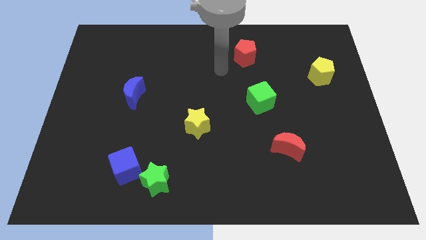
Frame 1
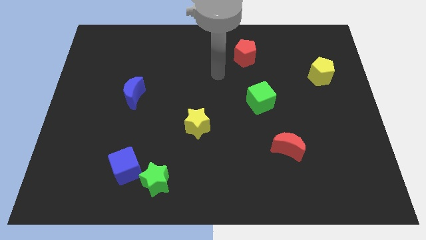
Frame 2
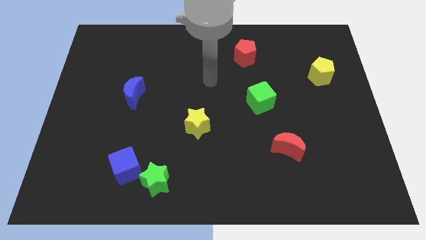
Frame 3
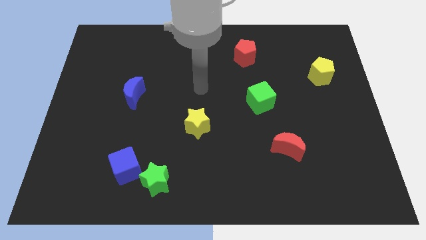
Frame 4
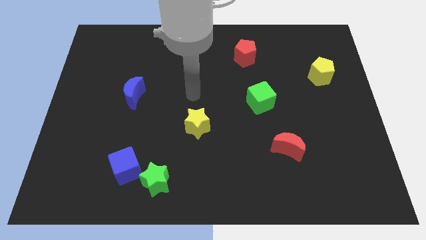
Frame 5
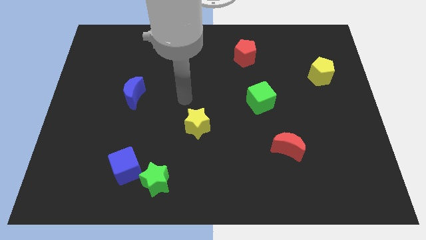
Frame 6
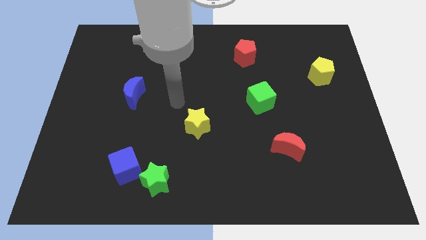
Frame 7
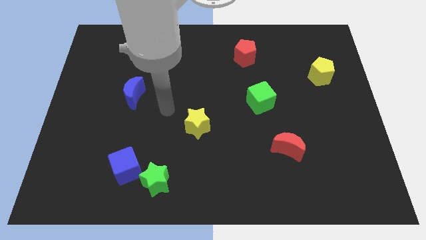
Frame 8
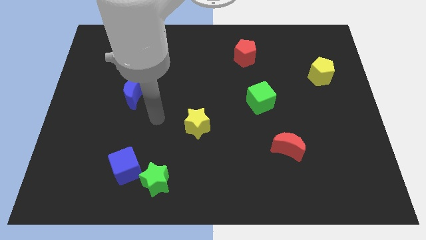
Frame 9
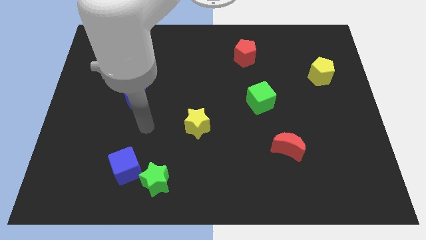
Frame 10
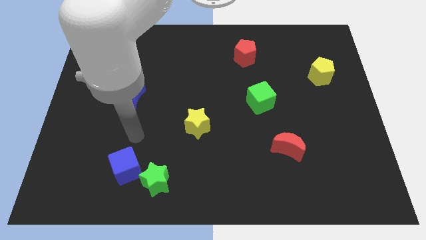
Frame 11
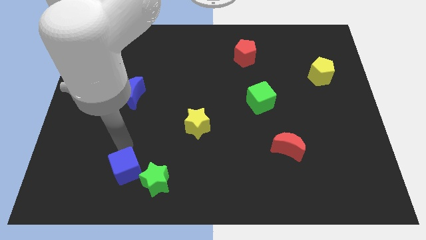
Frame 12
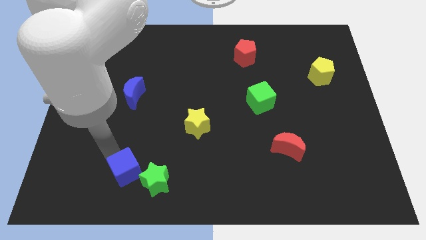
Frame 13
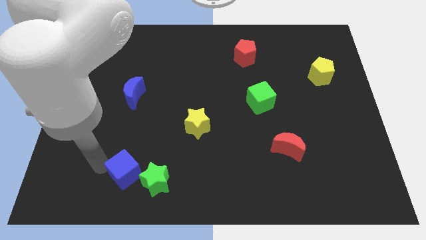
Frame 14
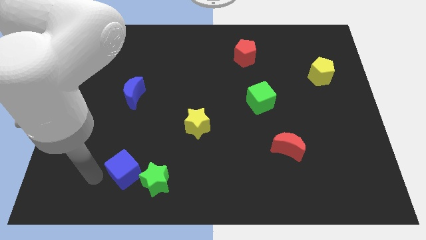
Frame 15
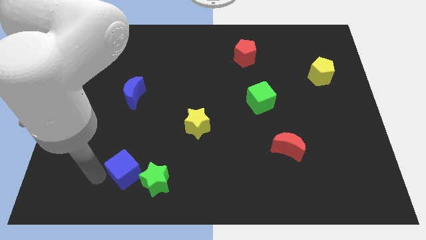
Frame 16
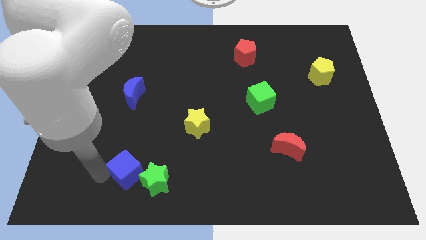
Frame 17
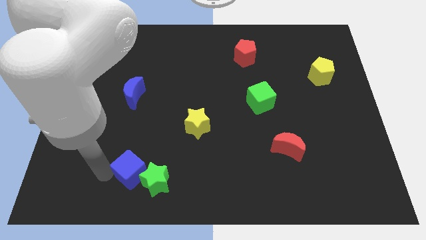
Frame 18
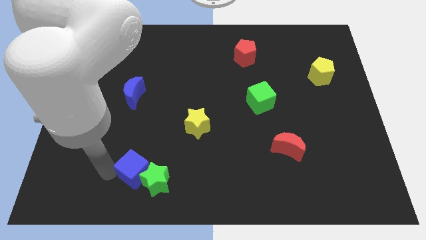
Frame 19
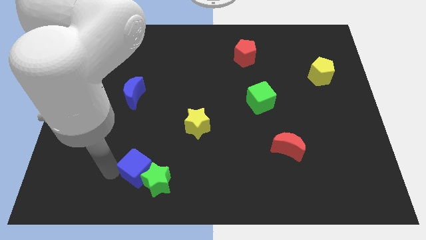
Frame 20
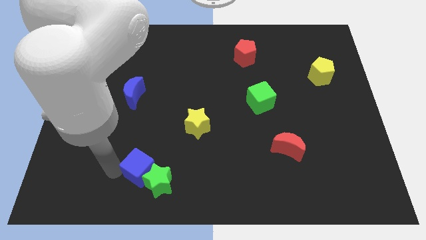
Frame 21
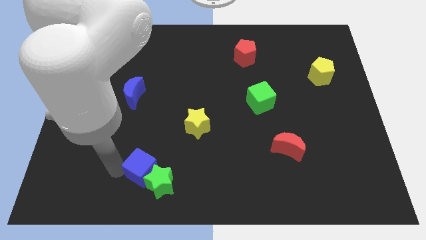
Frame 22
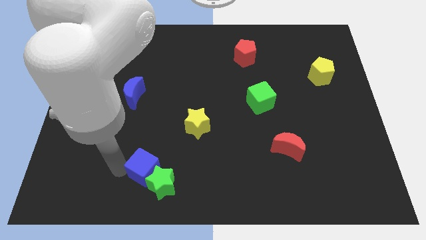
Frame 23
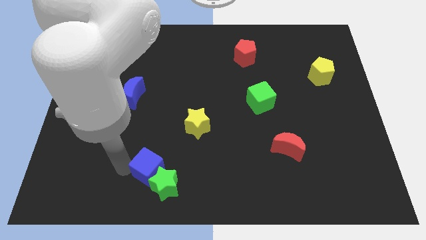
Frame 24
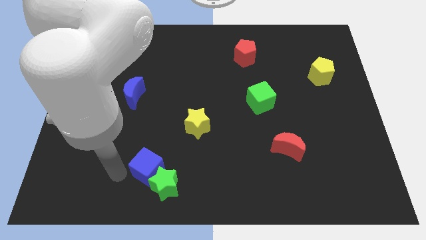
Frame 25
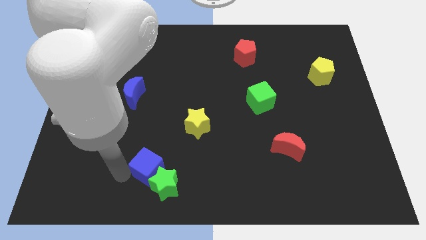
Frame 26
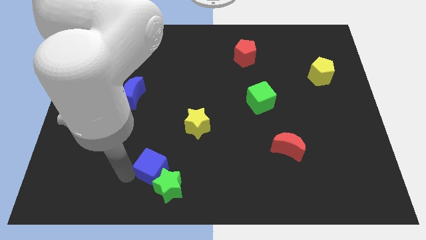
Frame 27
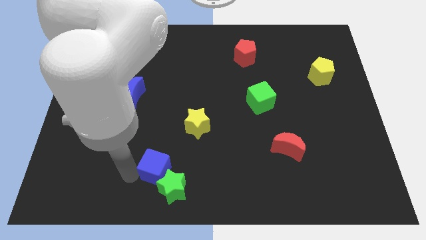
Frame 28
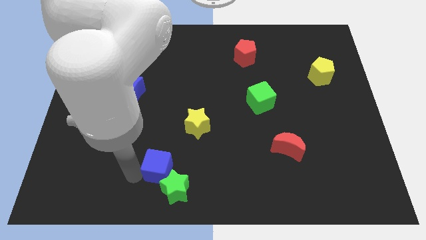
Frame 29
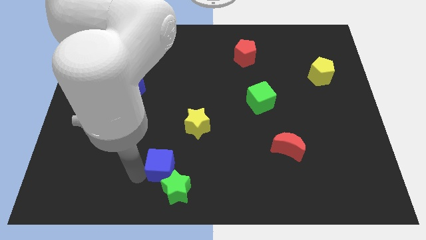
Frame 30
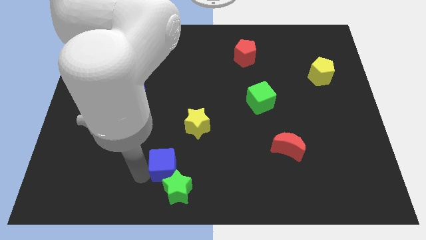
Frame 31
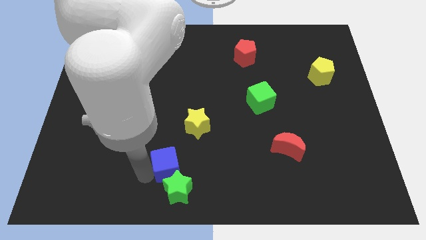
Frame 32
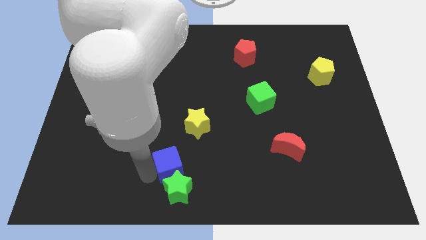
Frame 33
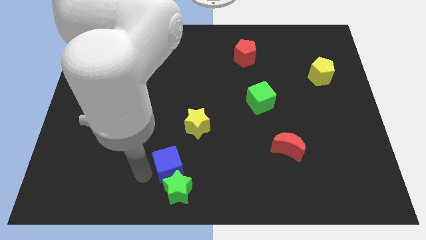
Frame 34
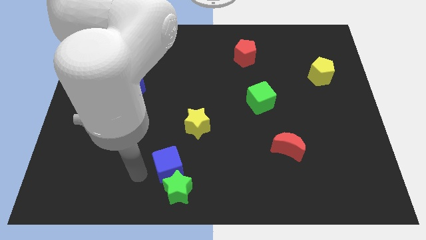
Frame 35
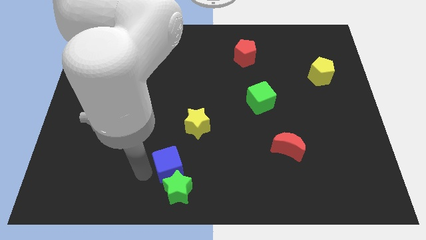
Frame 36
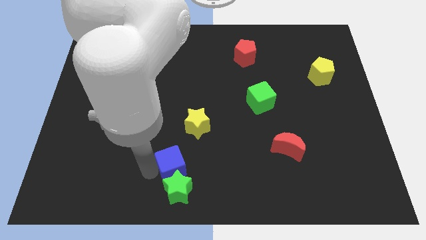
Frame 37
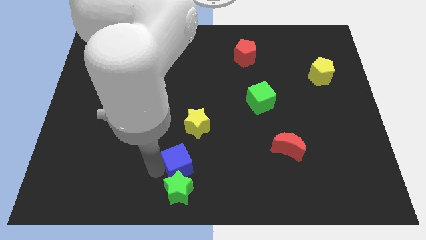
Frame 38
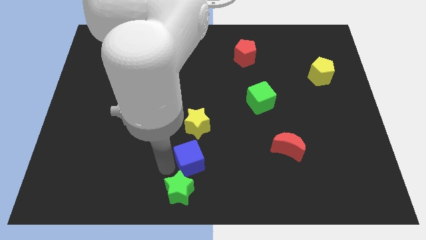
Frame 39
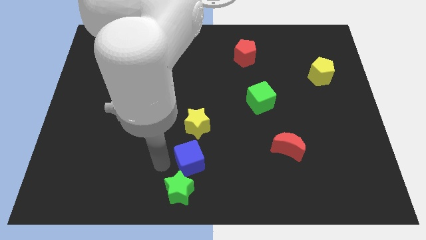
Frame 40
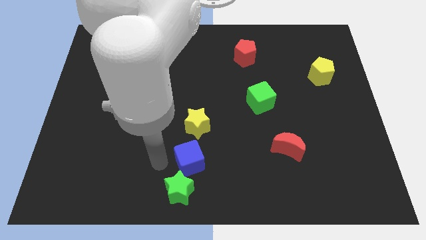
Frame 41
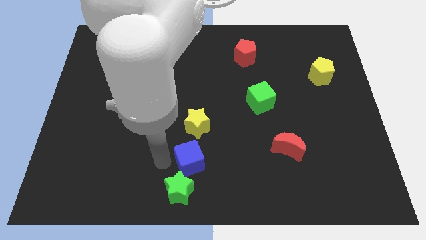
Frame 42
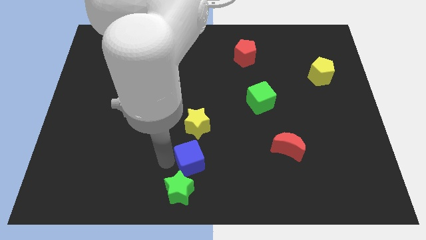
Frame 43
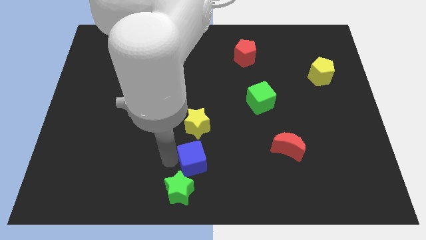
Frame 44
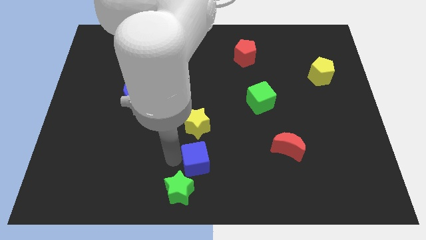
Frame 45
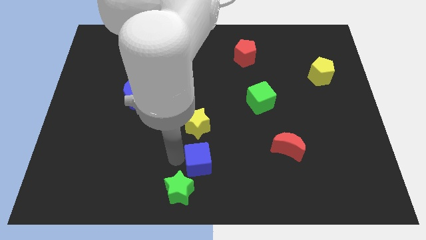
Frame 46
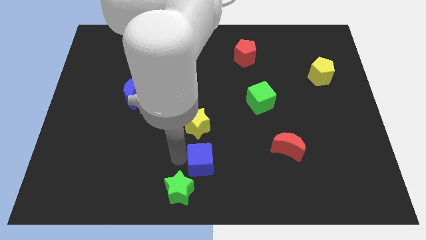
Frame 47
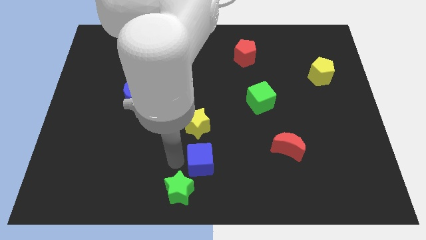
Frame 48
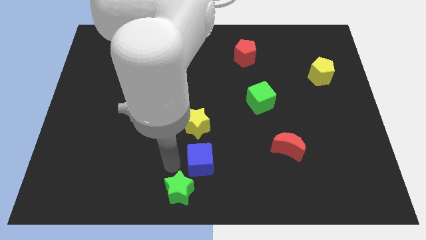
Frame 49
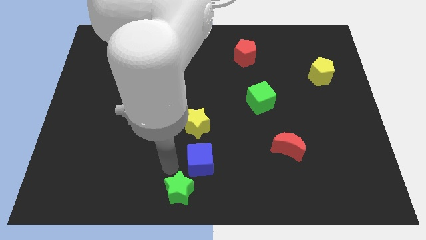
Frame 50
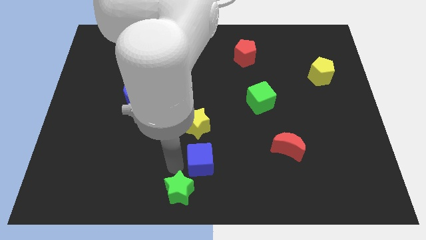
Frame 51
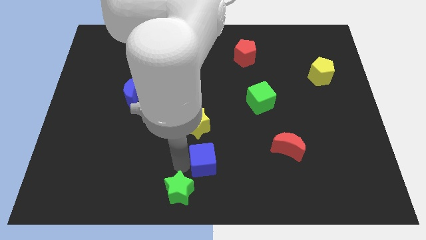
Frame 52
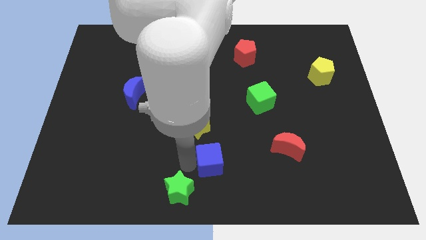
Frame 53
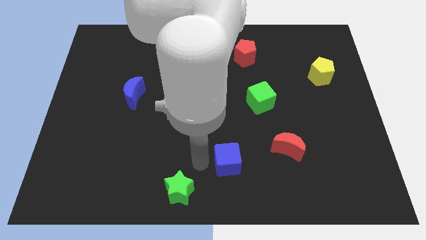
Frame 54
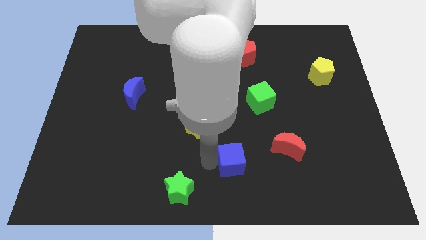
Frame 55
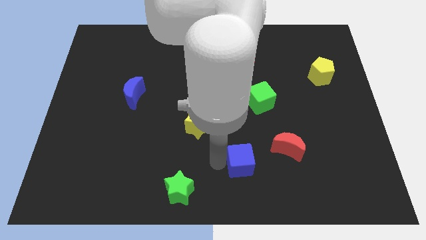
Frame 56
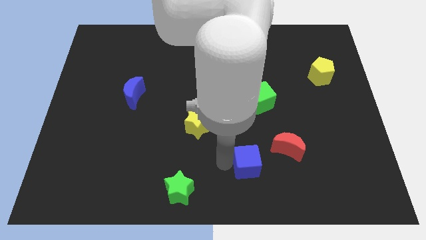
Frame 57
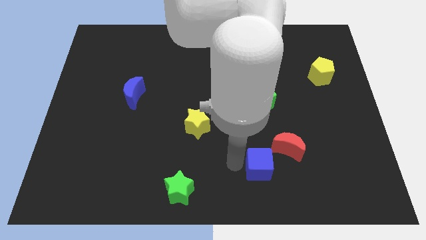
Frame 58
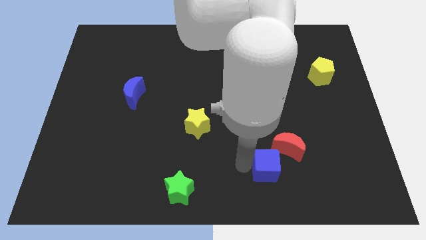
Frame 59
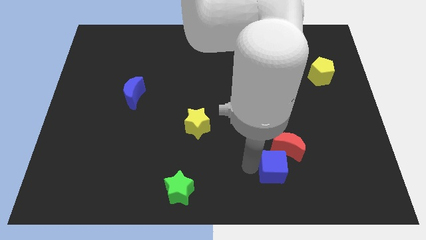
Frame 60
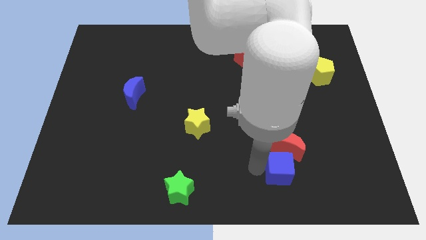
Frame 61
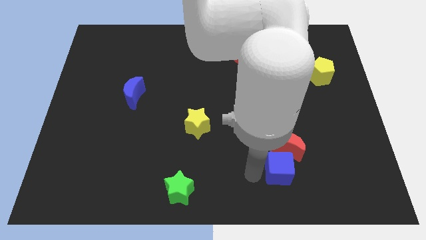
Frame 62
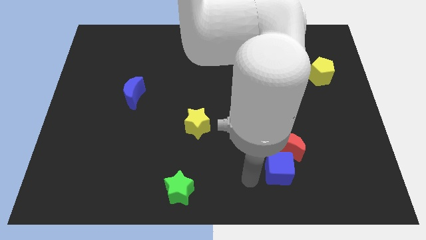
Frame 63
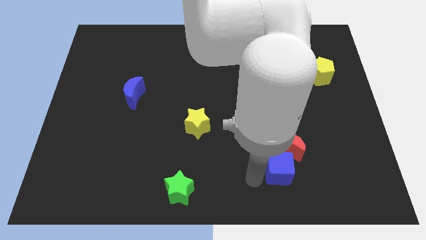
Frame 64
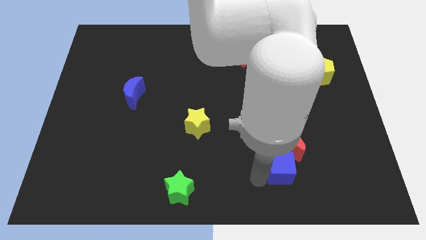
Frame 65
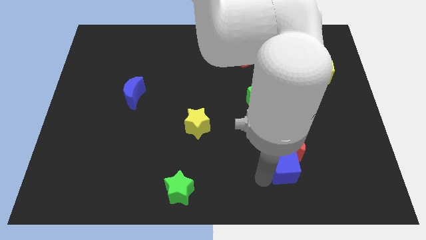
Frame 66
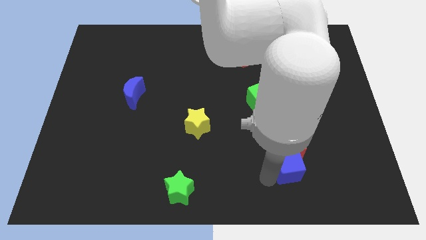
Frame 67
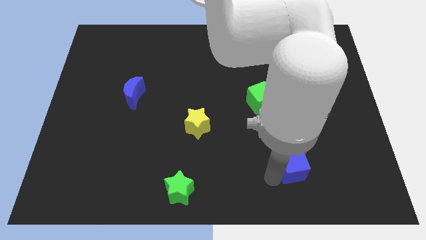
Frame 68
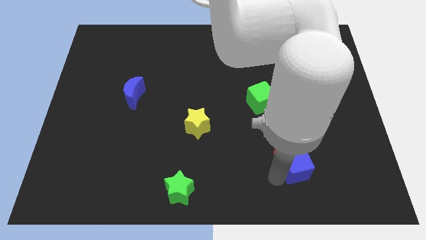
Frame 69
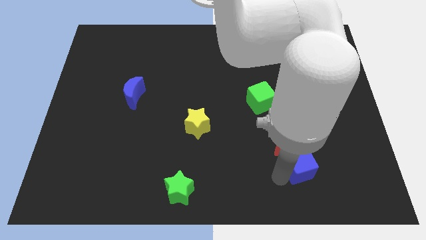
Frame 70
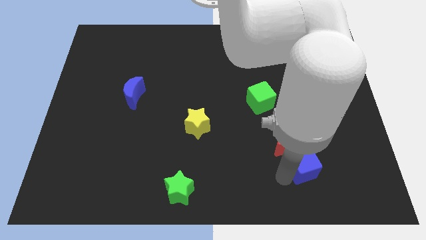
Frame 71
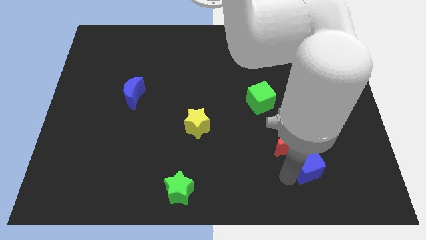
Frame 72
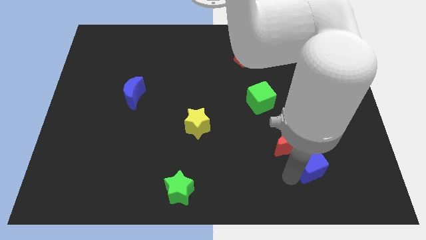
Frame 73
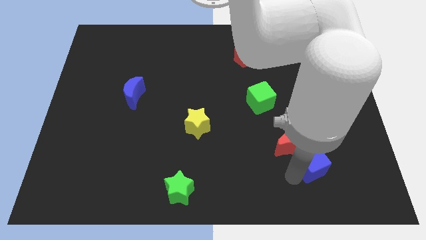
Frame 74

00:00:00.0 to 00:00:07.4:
put the blue cube just right of the red moon
